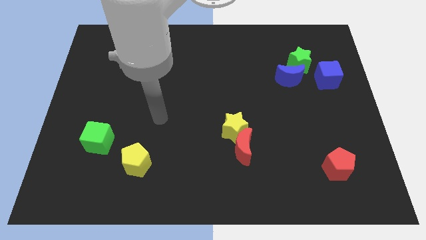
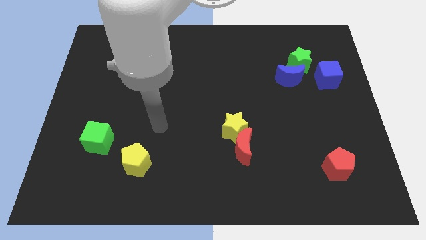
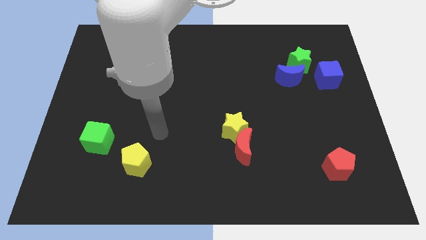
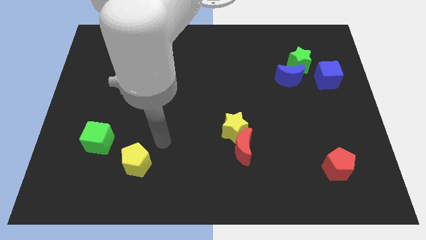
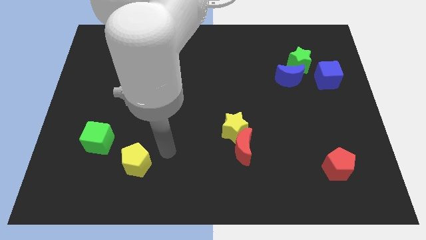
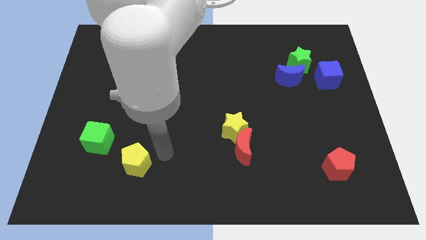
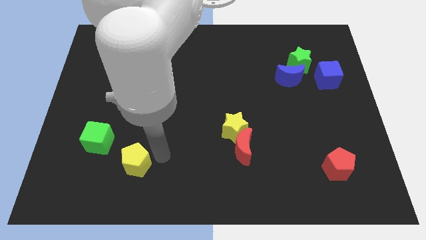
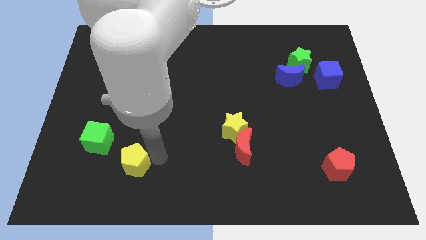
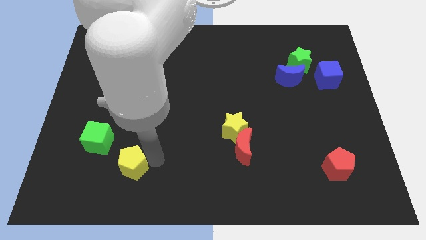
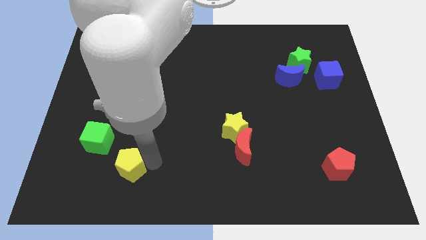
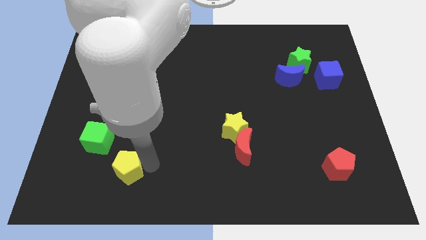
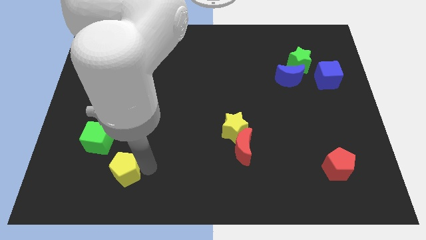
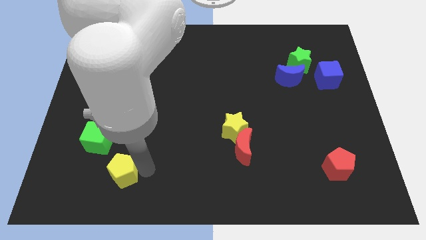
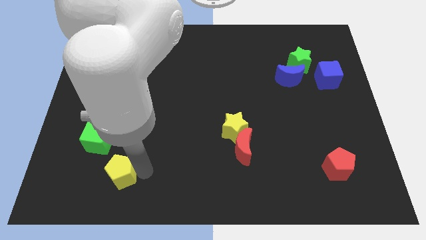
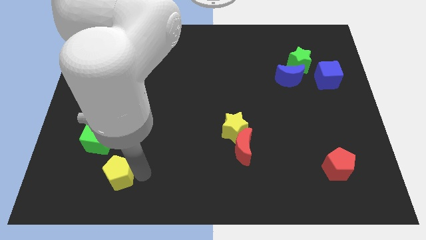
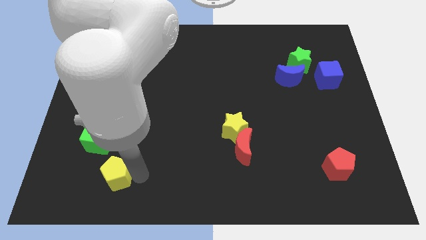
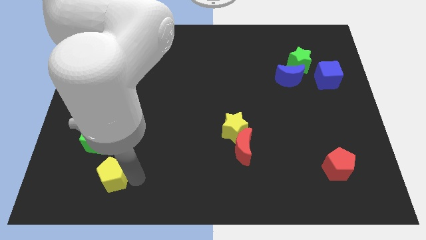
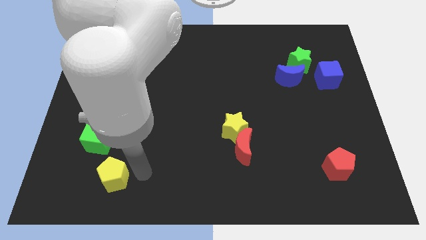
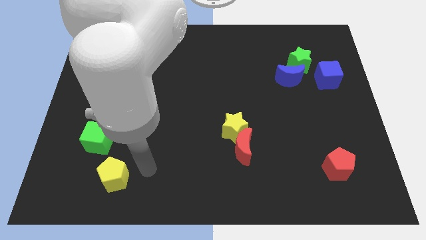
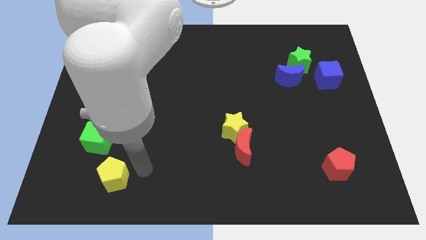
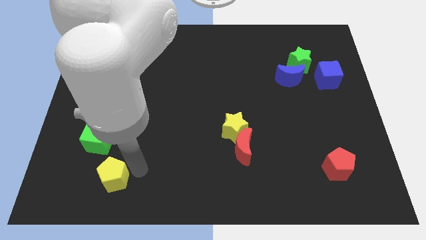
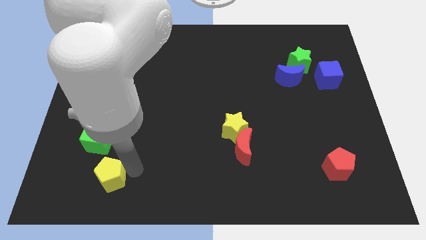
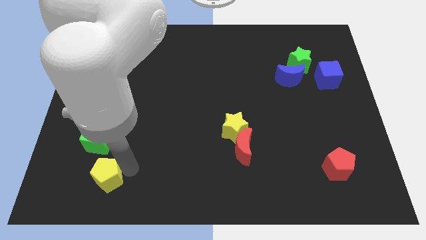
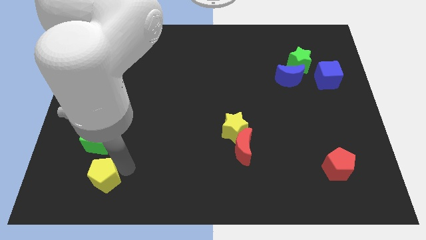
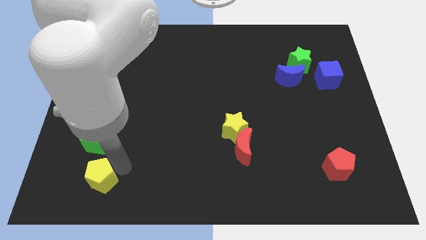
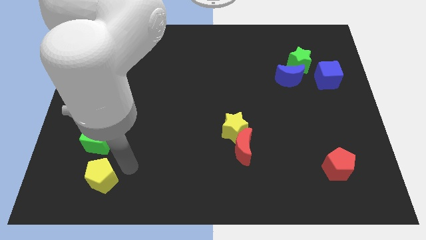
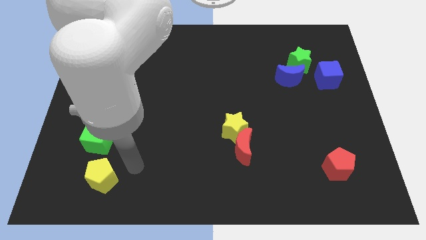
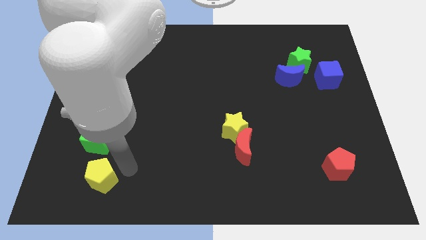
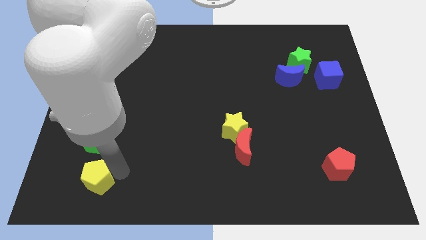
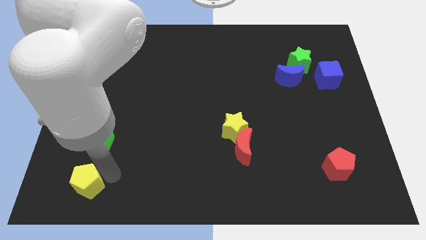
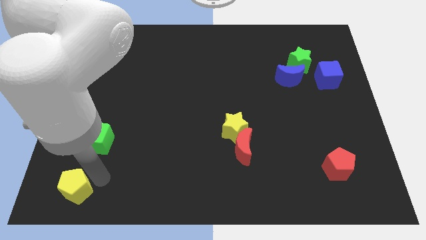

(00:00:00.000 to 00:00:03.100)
slide the yellow pentagon to the bottom left of the board

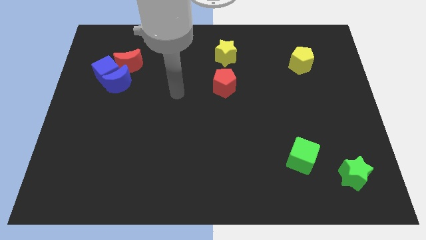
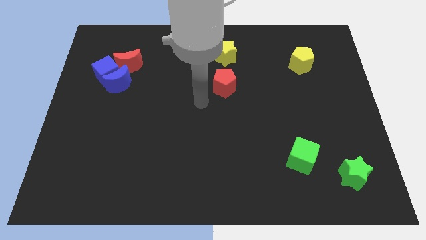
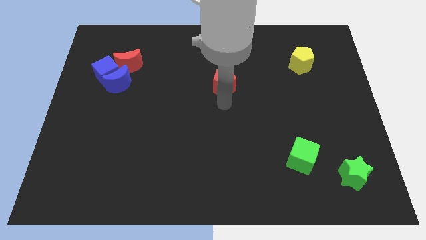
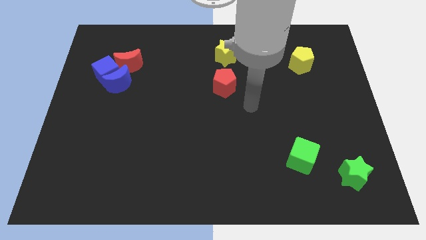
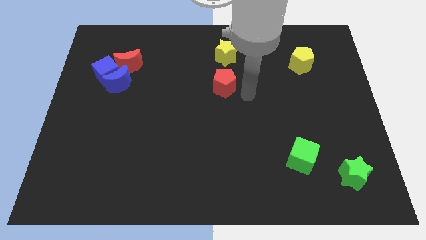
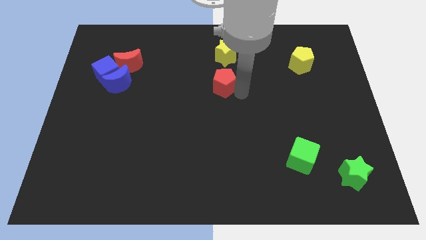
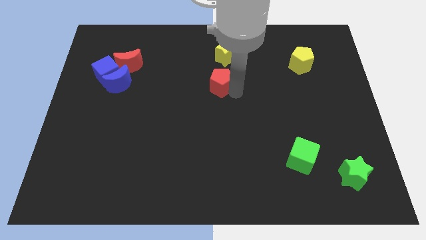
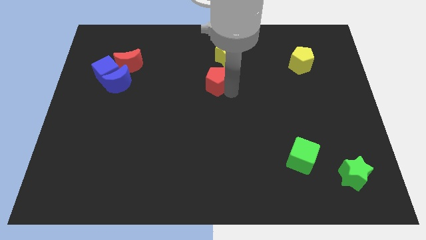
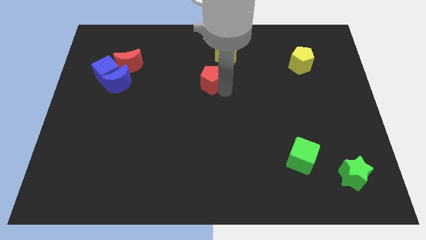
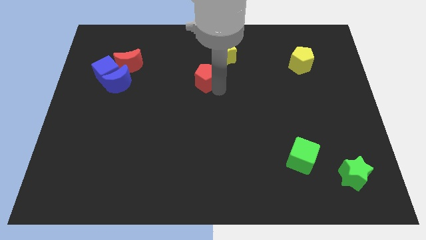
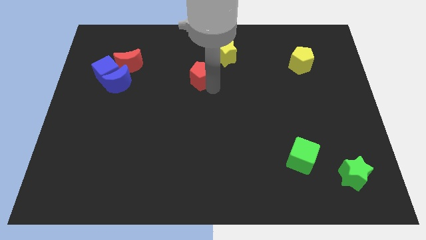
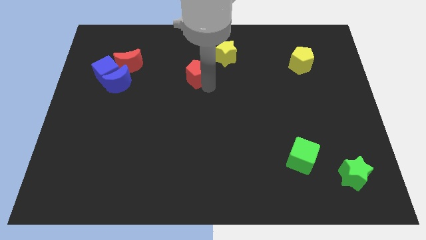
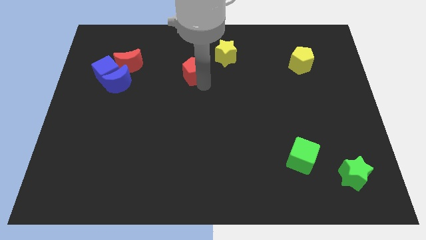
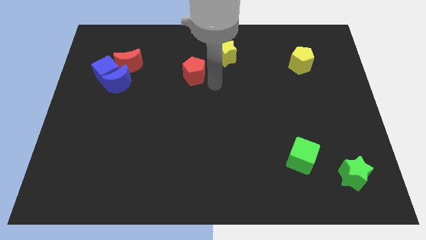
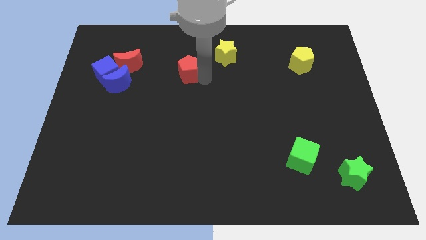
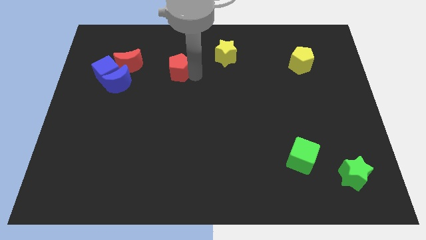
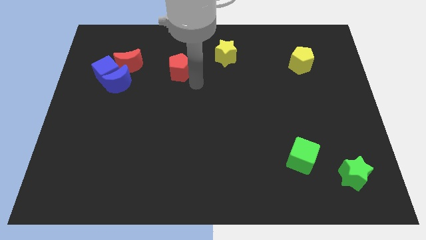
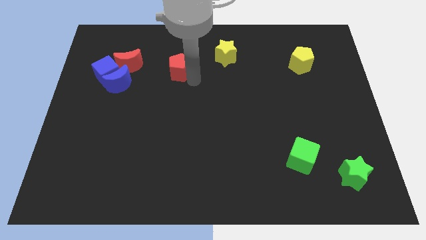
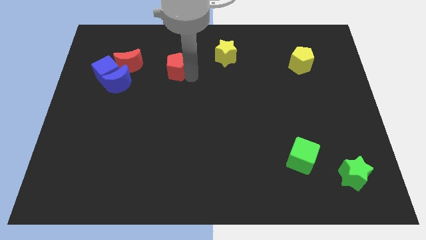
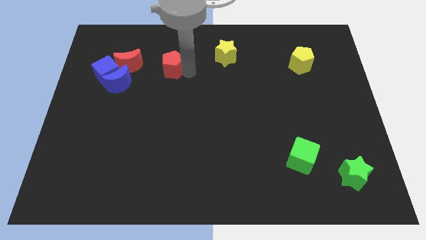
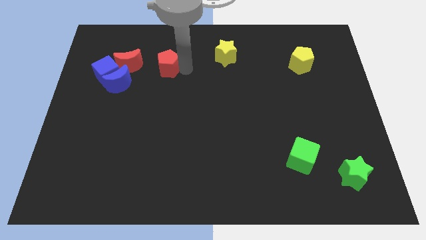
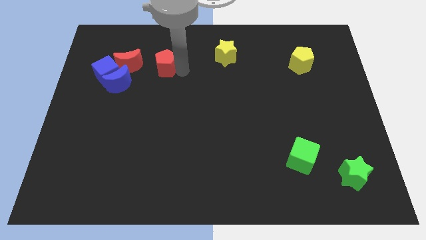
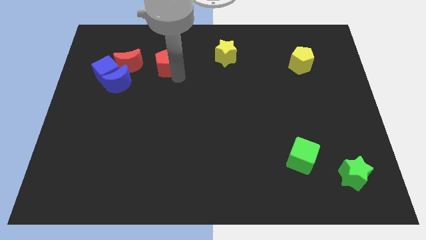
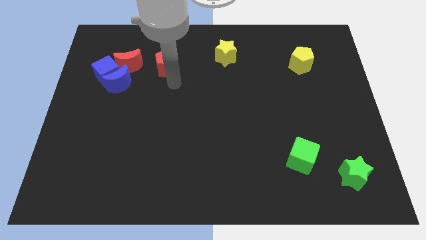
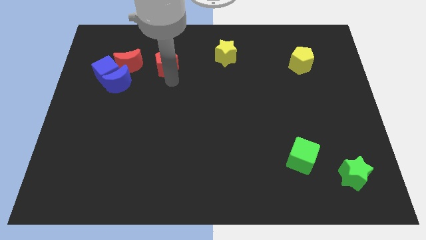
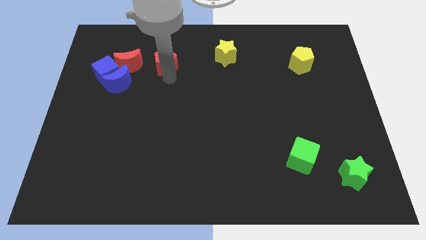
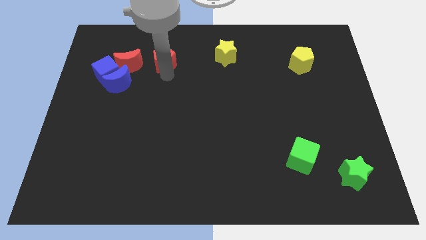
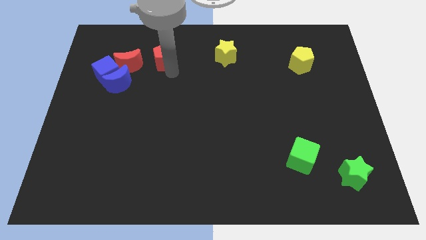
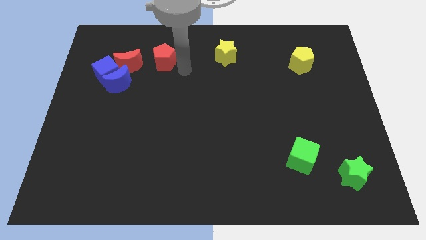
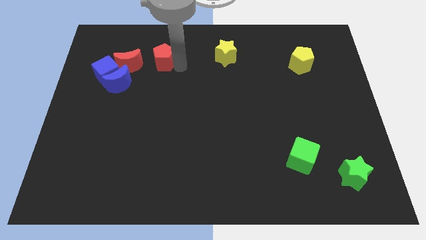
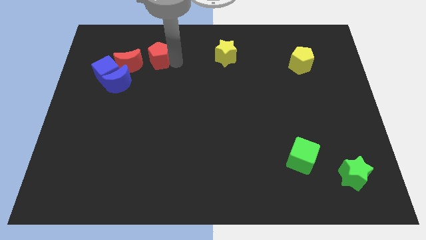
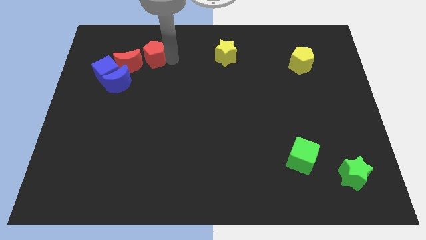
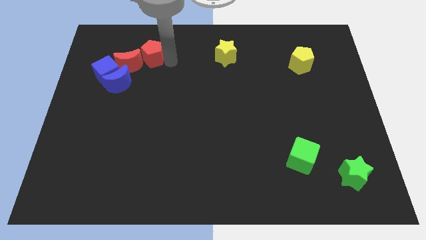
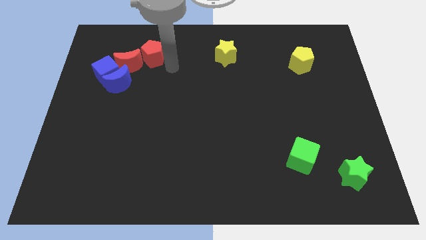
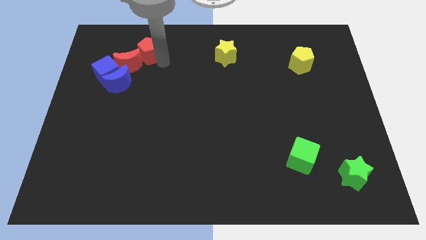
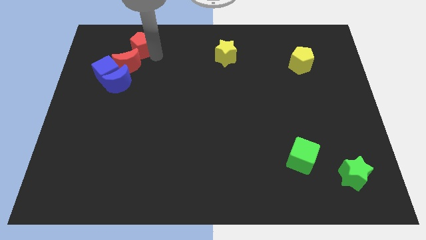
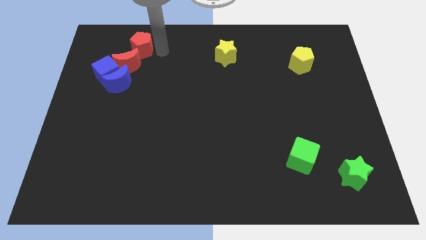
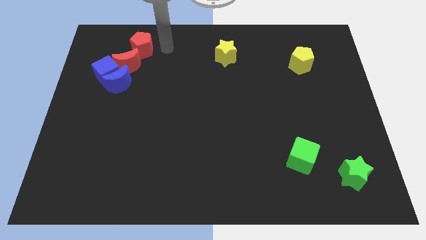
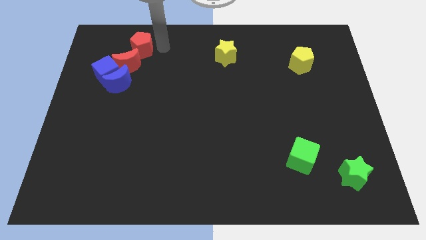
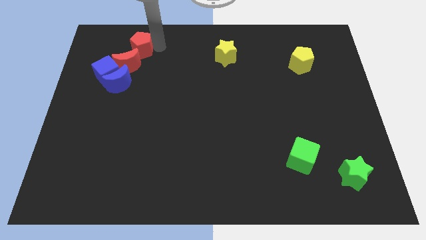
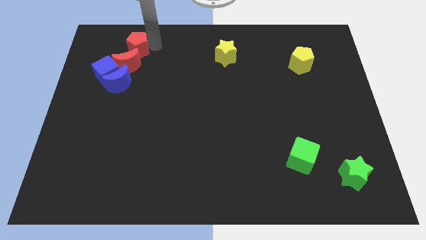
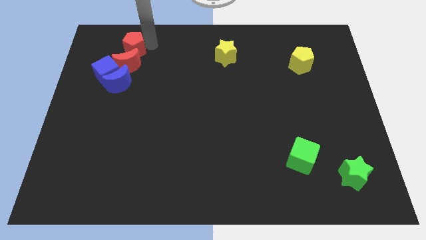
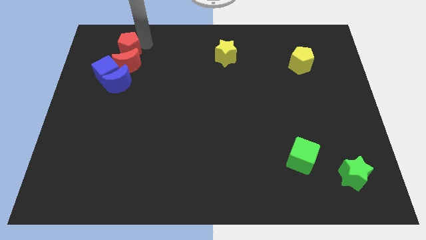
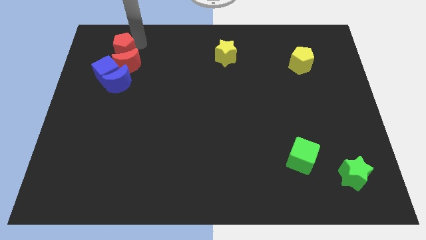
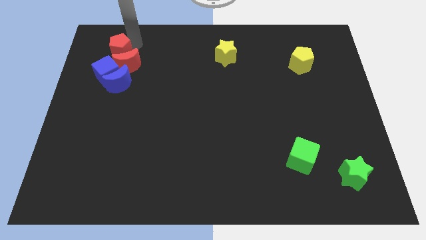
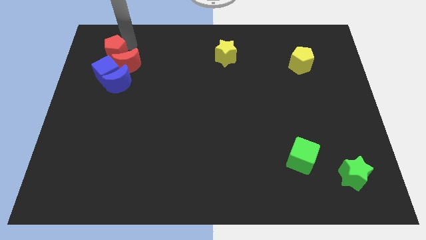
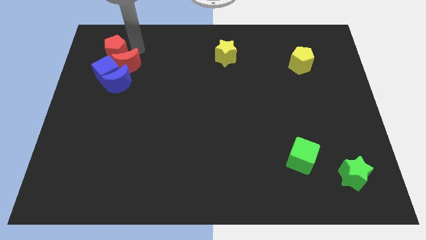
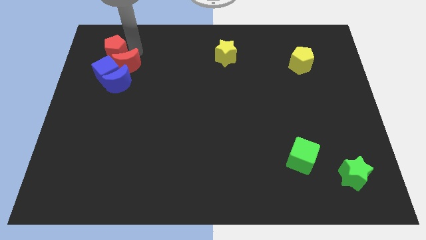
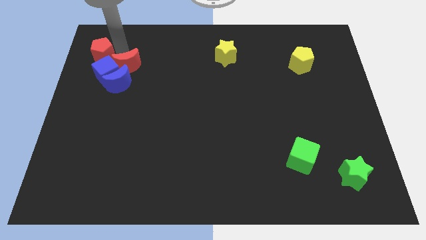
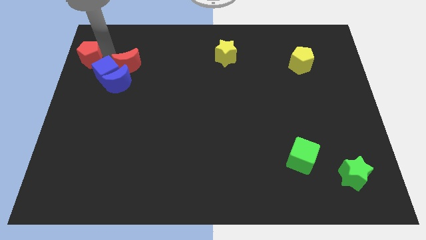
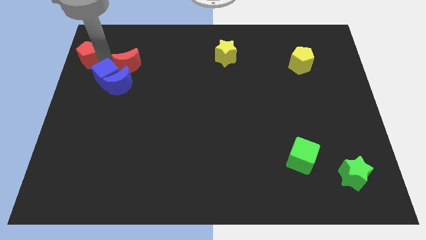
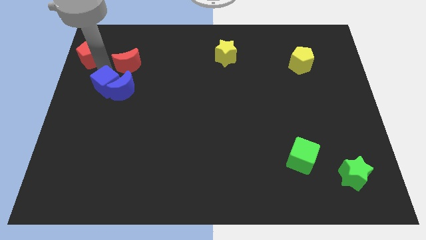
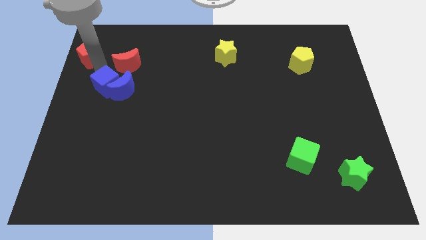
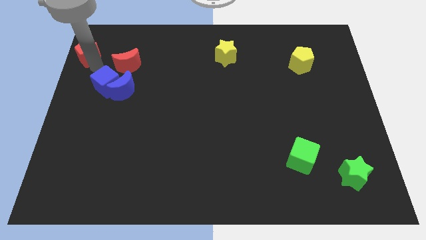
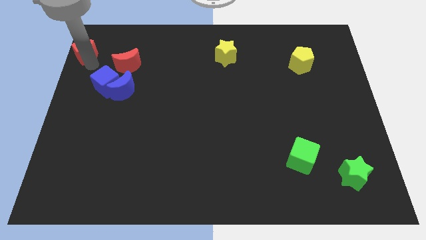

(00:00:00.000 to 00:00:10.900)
push the red pentagon to the top left of the board
